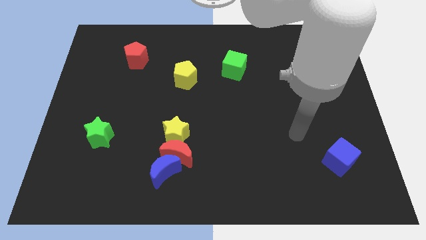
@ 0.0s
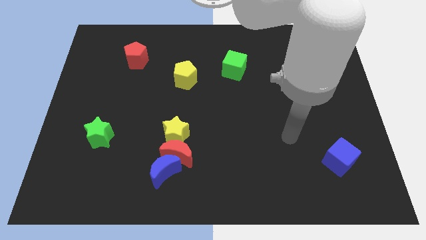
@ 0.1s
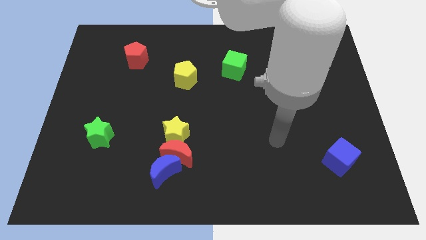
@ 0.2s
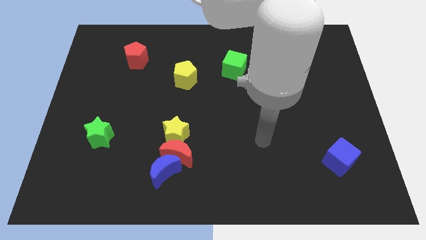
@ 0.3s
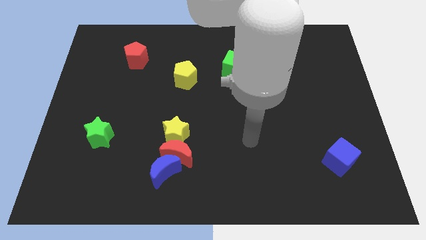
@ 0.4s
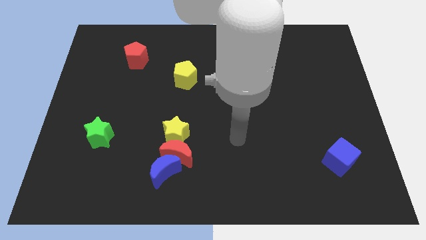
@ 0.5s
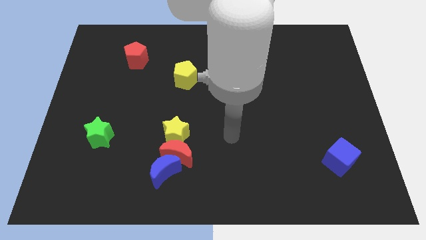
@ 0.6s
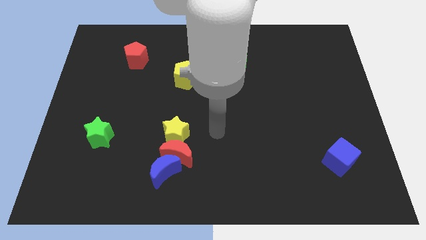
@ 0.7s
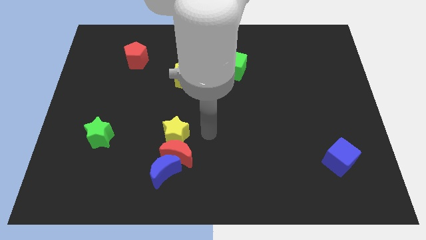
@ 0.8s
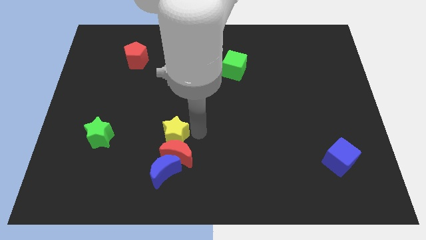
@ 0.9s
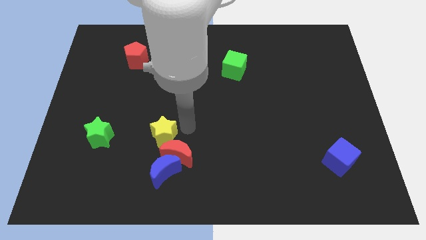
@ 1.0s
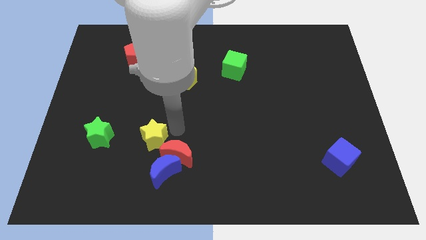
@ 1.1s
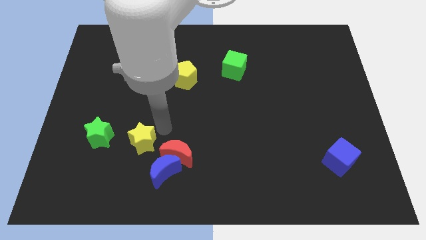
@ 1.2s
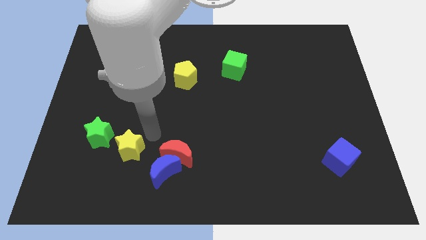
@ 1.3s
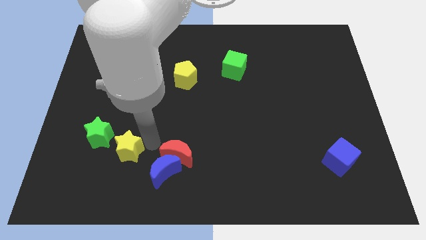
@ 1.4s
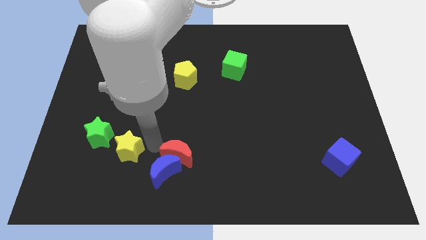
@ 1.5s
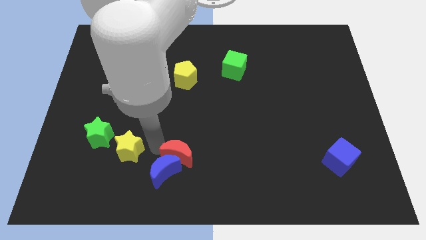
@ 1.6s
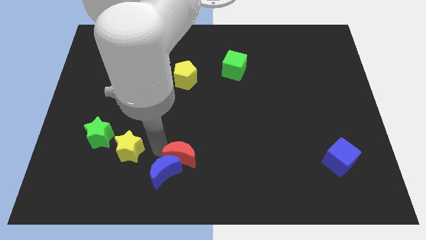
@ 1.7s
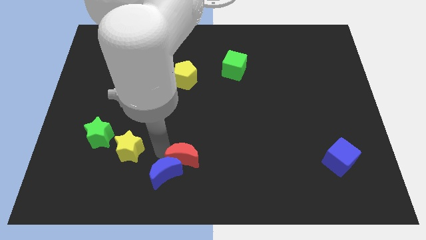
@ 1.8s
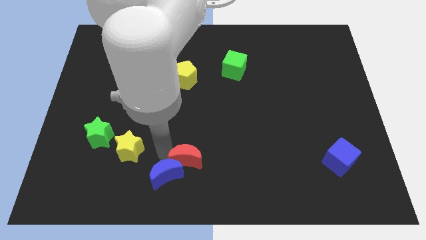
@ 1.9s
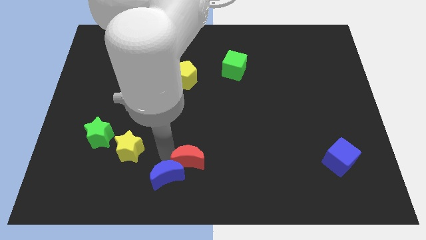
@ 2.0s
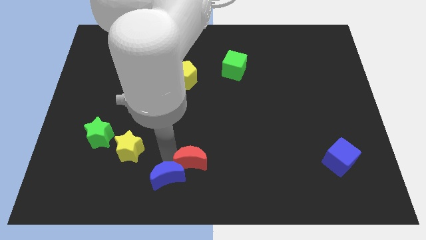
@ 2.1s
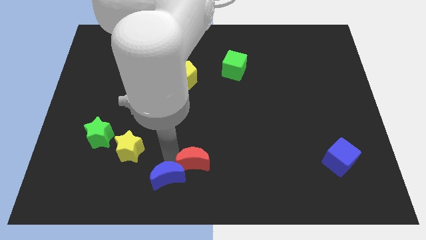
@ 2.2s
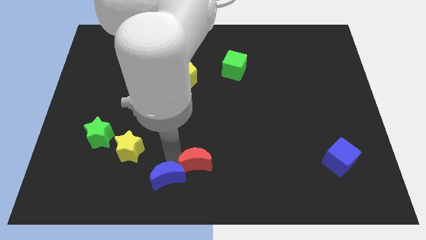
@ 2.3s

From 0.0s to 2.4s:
separate the red moon from the blue moon and yellow star

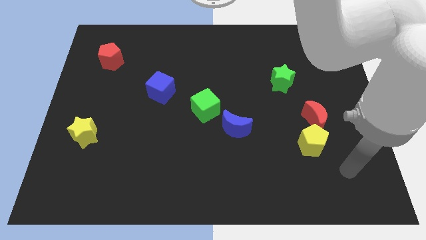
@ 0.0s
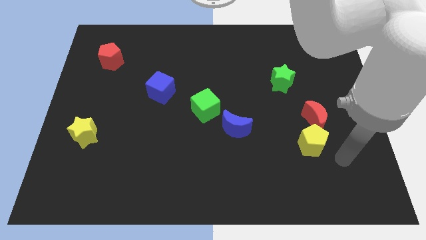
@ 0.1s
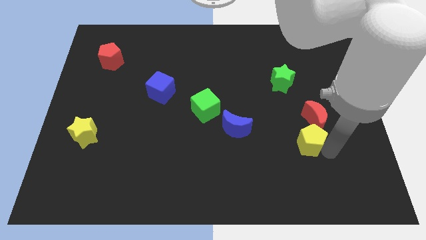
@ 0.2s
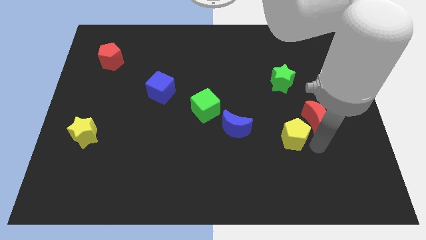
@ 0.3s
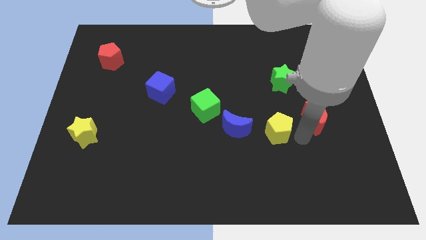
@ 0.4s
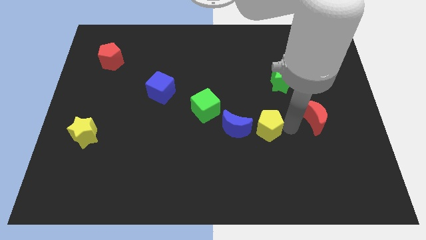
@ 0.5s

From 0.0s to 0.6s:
move the red moon away from the yellow pentagon

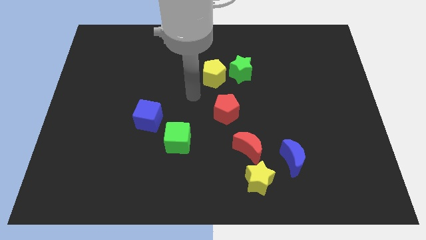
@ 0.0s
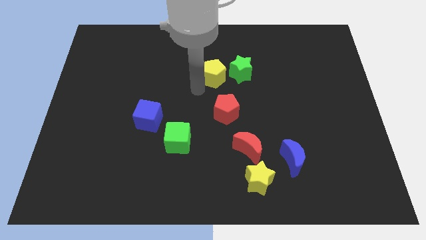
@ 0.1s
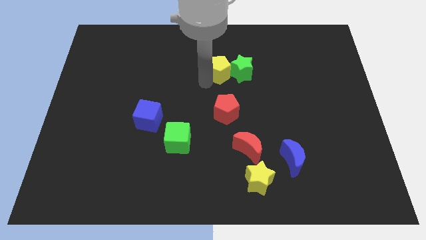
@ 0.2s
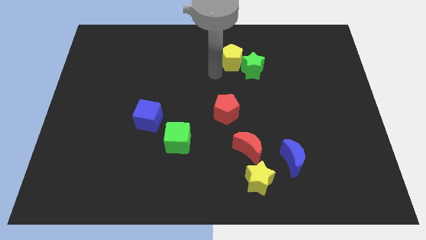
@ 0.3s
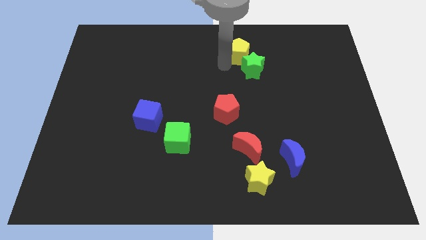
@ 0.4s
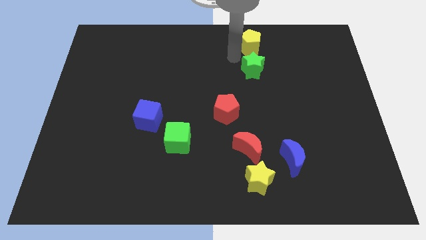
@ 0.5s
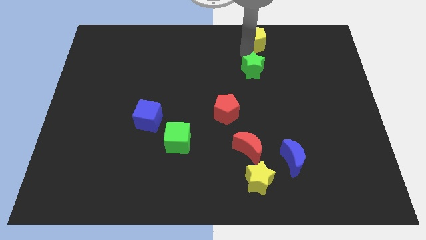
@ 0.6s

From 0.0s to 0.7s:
pull the green star apart from the yellow pentagon

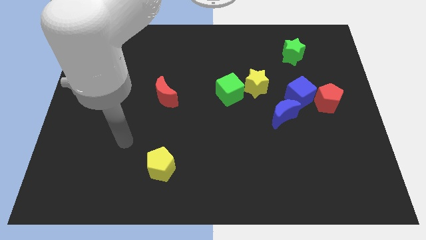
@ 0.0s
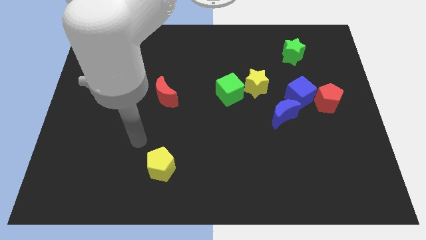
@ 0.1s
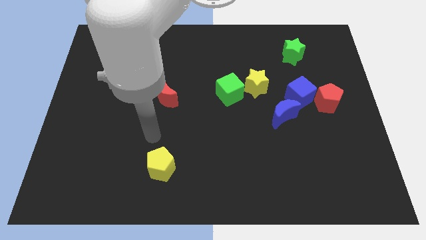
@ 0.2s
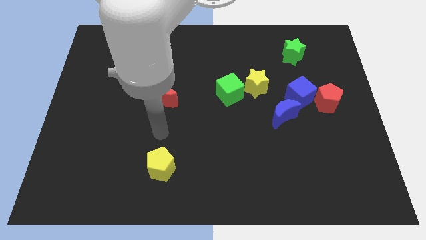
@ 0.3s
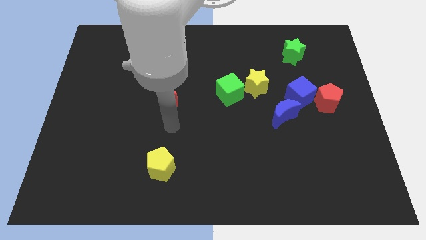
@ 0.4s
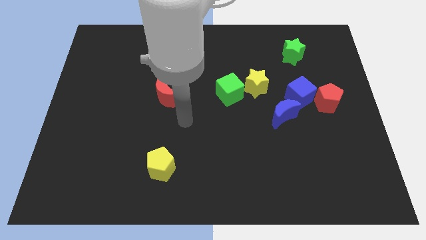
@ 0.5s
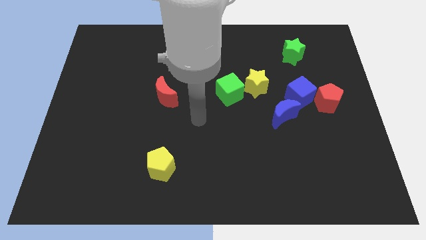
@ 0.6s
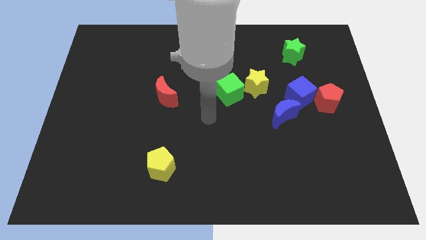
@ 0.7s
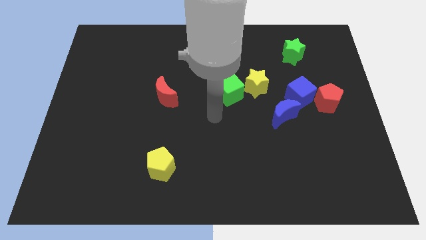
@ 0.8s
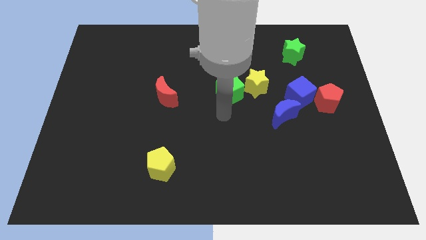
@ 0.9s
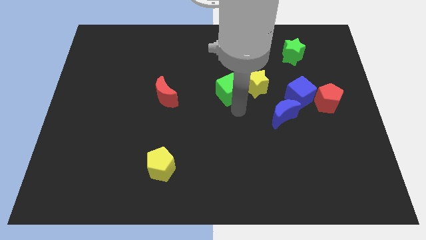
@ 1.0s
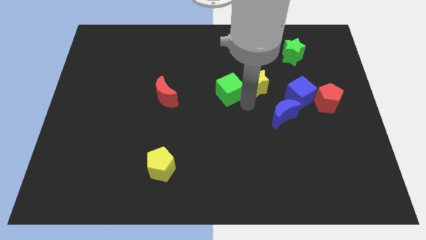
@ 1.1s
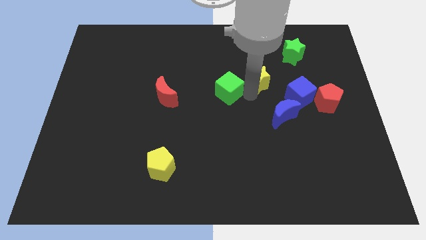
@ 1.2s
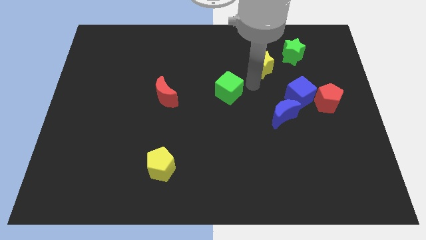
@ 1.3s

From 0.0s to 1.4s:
move the green cube away from the yellow star

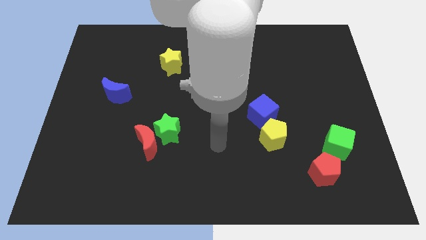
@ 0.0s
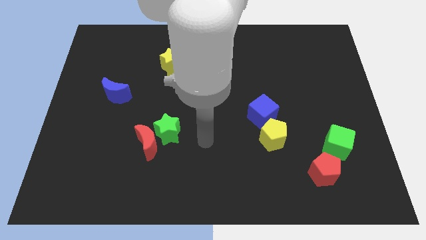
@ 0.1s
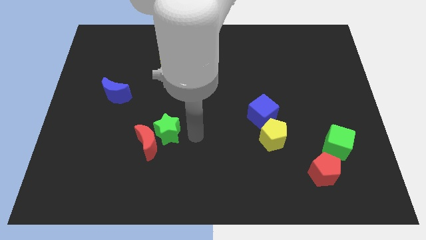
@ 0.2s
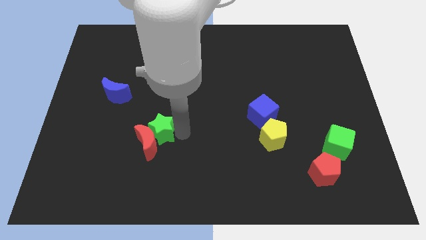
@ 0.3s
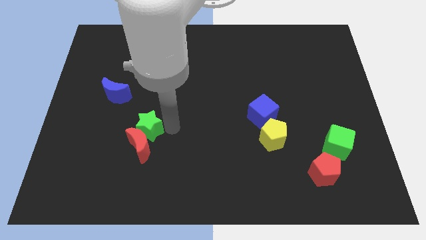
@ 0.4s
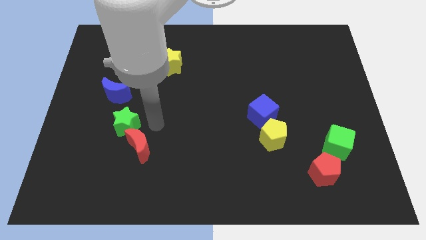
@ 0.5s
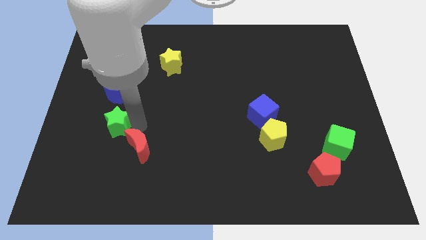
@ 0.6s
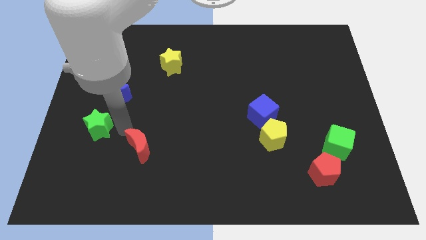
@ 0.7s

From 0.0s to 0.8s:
separate the red moon from the green star

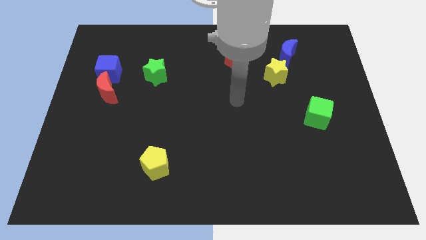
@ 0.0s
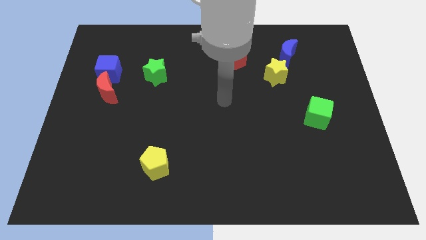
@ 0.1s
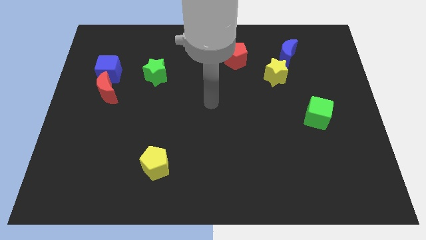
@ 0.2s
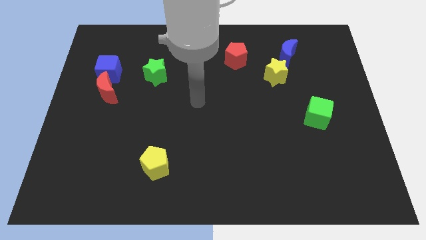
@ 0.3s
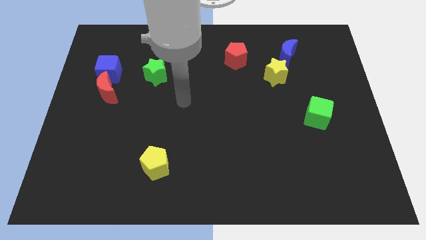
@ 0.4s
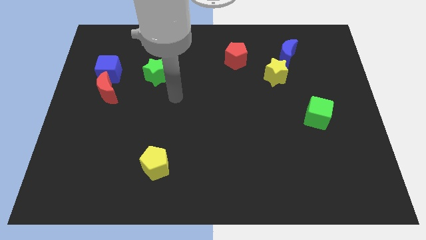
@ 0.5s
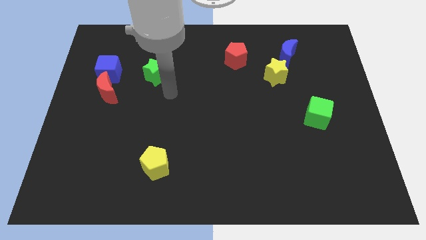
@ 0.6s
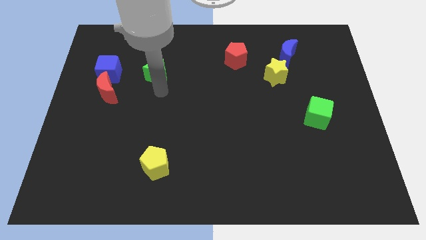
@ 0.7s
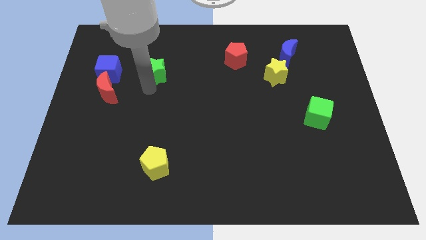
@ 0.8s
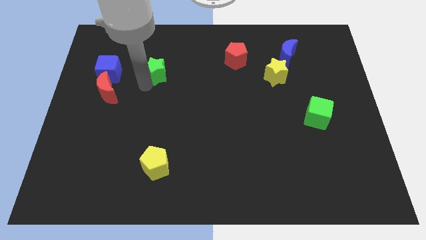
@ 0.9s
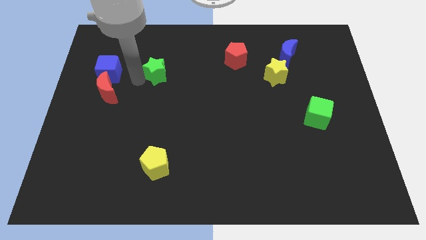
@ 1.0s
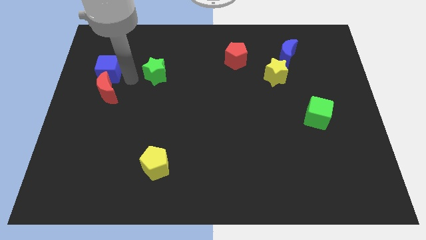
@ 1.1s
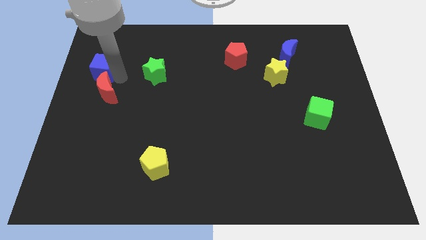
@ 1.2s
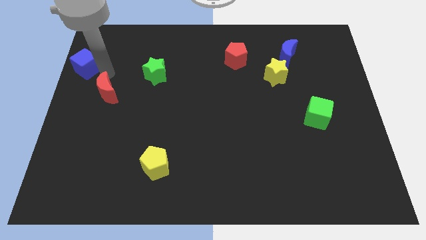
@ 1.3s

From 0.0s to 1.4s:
separate the red moon from the blue cube

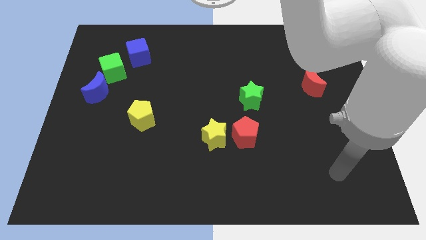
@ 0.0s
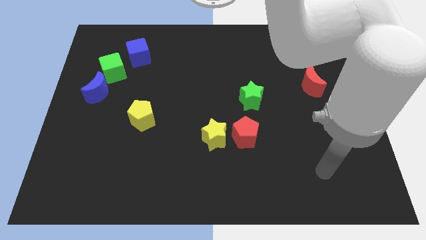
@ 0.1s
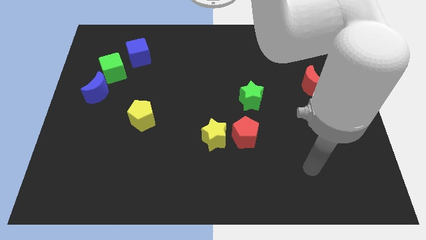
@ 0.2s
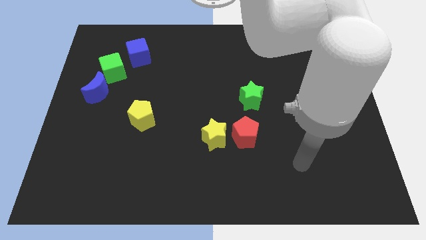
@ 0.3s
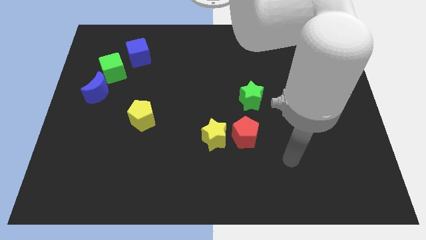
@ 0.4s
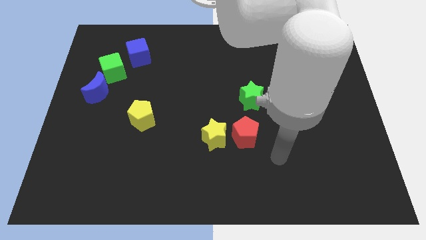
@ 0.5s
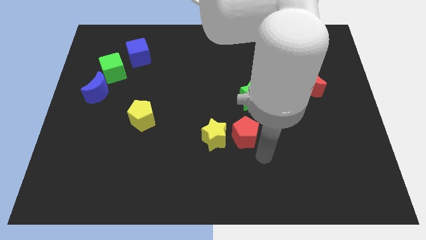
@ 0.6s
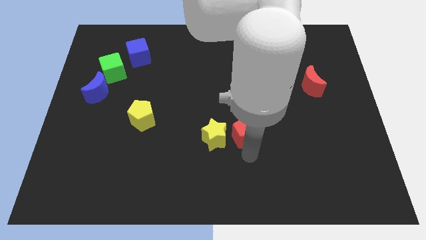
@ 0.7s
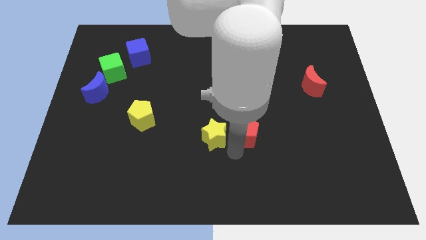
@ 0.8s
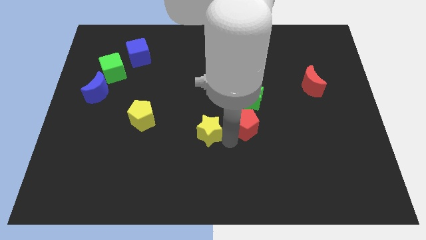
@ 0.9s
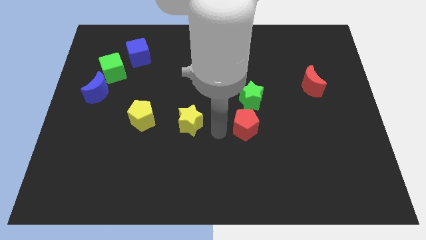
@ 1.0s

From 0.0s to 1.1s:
pull the red pentagon apart from the yellow star

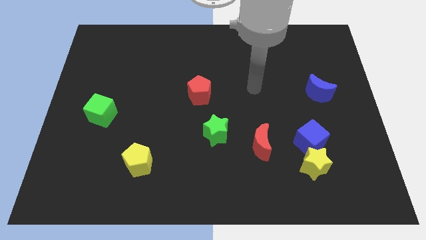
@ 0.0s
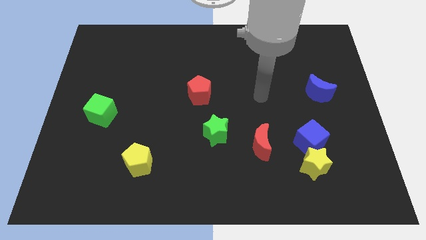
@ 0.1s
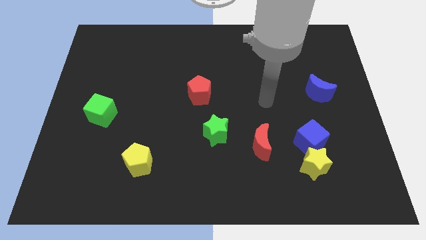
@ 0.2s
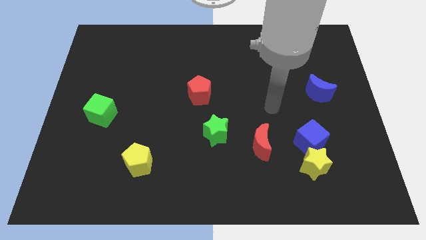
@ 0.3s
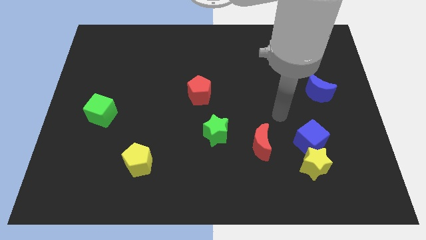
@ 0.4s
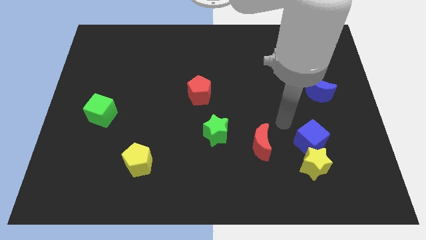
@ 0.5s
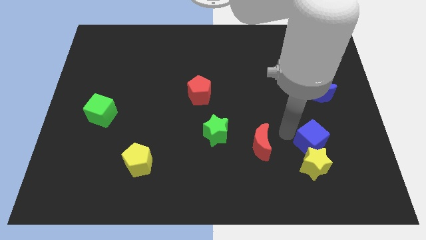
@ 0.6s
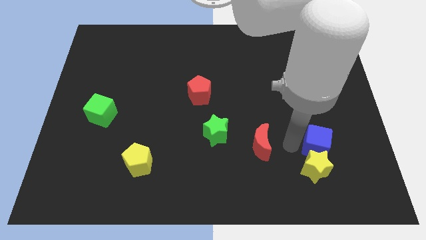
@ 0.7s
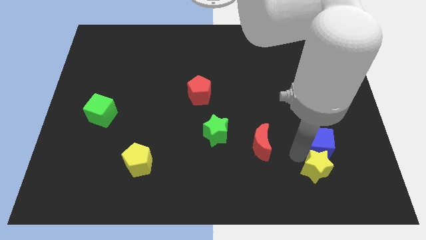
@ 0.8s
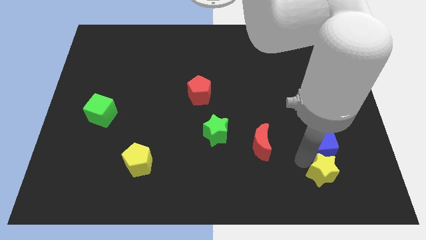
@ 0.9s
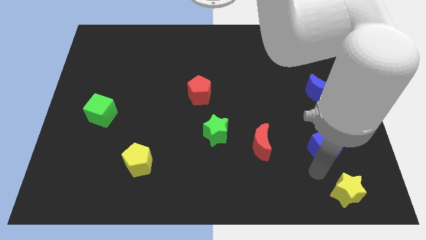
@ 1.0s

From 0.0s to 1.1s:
move the blue cube away from the yellow star
